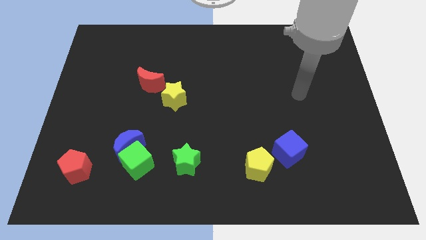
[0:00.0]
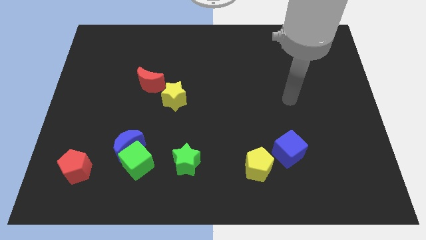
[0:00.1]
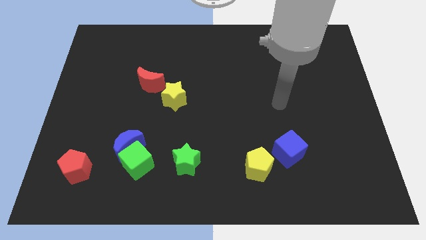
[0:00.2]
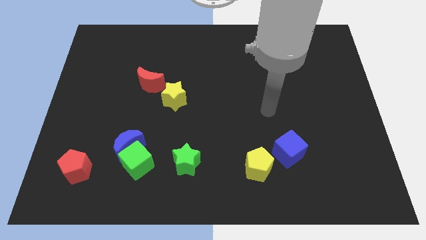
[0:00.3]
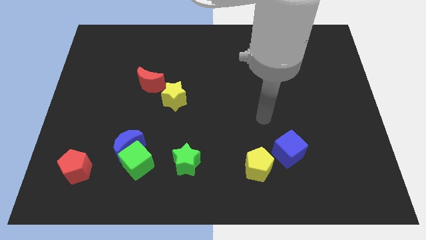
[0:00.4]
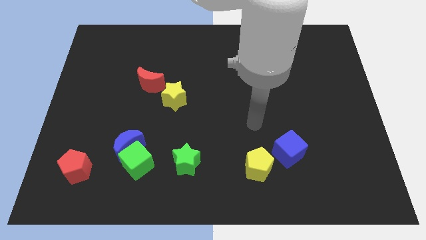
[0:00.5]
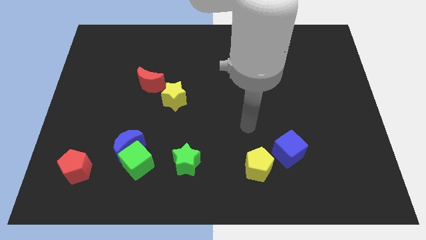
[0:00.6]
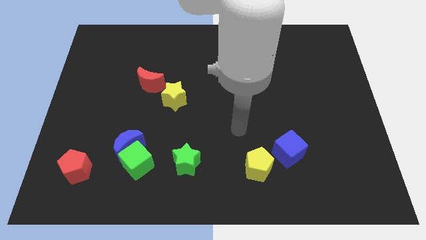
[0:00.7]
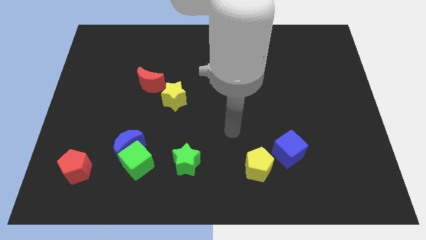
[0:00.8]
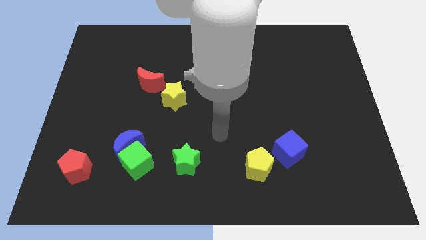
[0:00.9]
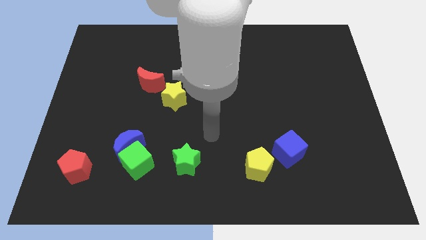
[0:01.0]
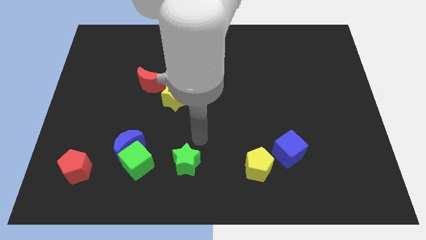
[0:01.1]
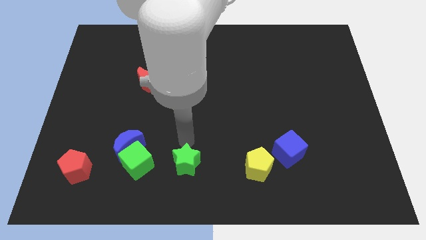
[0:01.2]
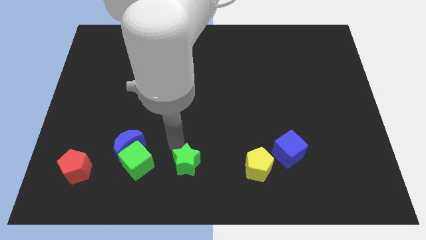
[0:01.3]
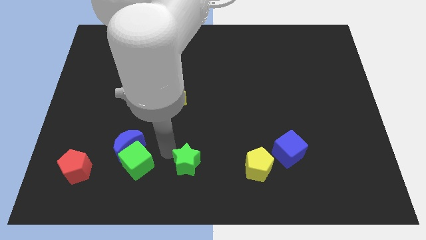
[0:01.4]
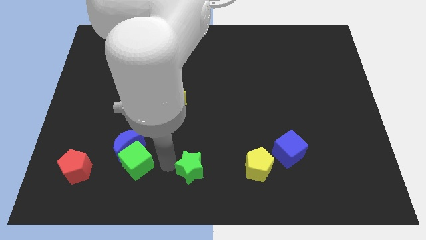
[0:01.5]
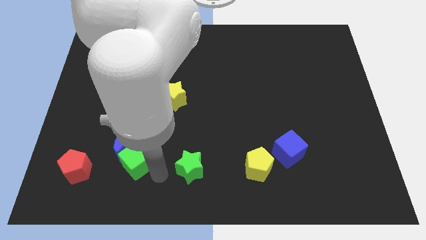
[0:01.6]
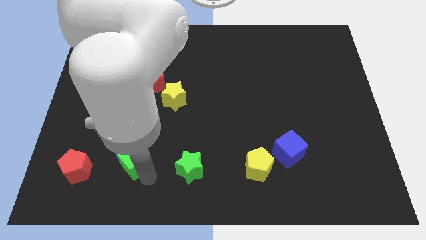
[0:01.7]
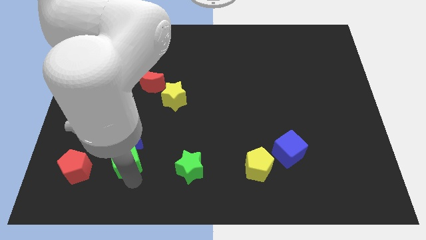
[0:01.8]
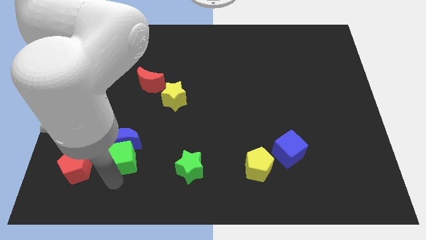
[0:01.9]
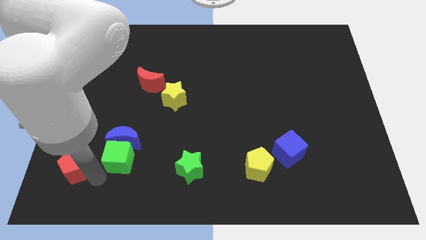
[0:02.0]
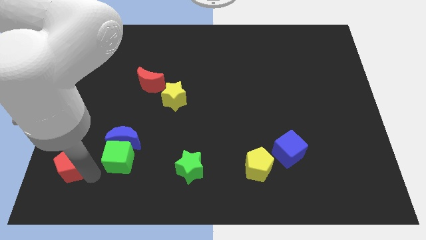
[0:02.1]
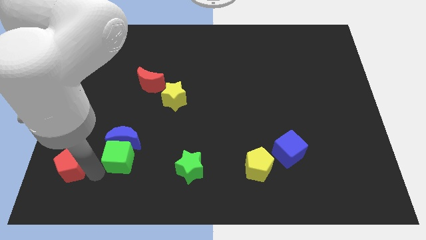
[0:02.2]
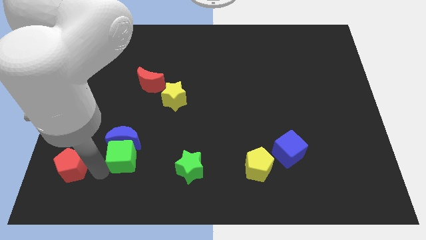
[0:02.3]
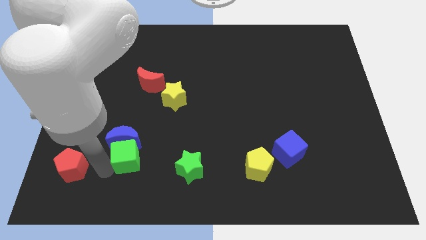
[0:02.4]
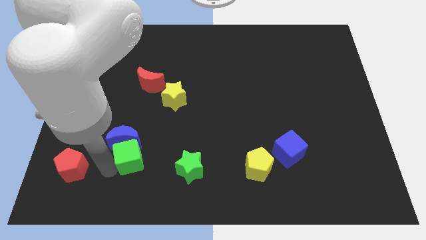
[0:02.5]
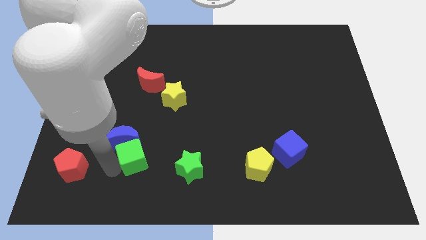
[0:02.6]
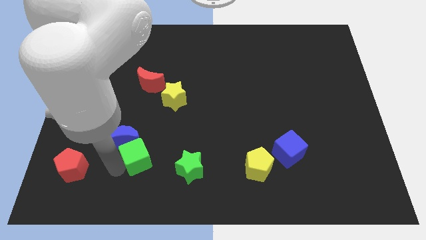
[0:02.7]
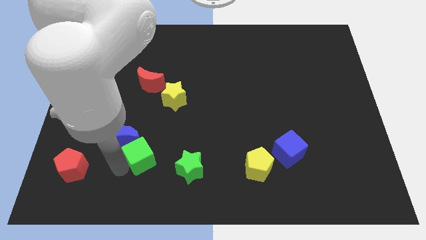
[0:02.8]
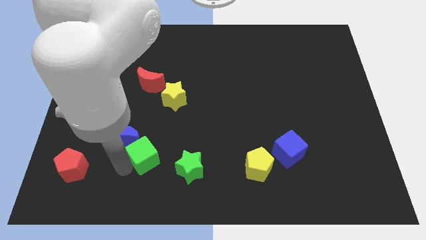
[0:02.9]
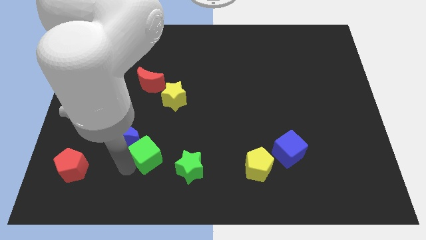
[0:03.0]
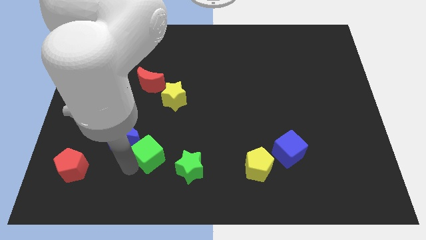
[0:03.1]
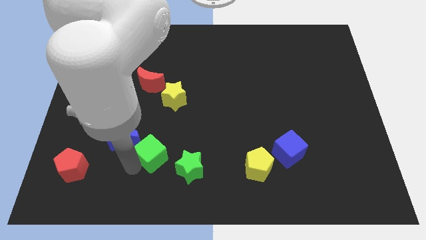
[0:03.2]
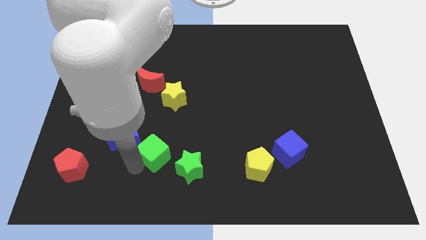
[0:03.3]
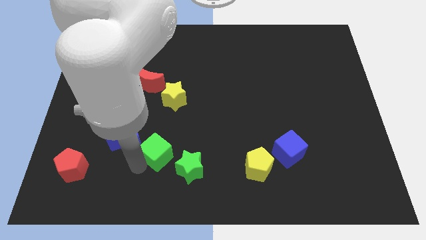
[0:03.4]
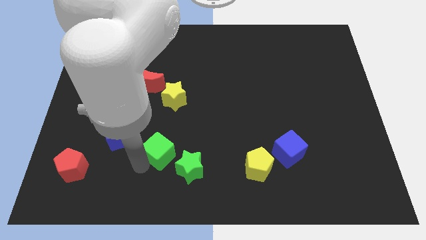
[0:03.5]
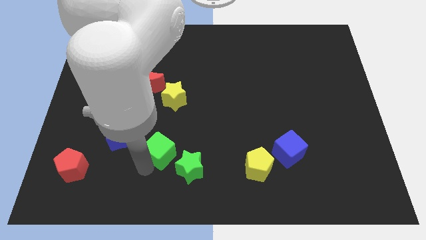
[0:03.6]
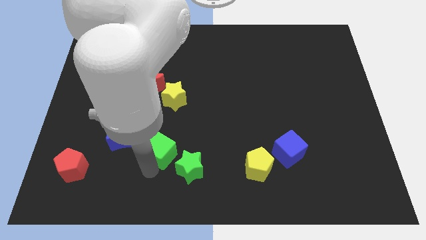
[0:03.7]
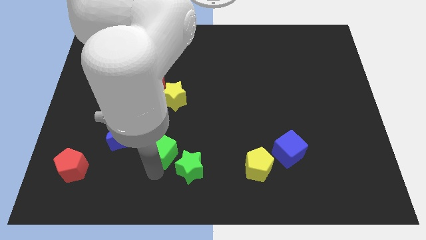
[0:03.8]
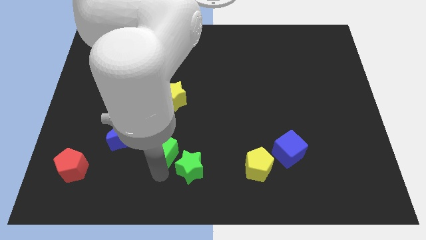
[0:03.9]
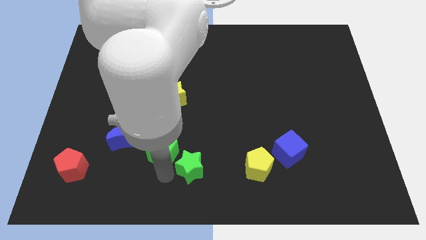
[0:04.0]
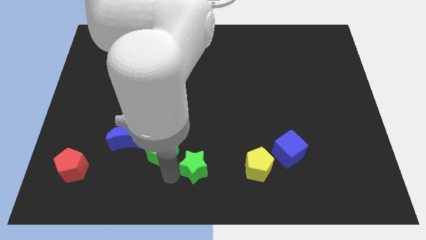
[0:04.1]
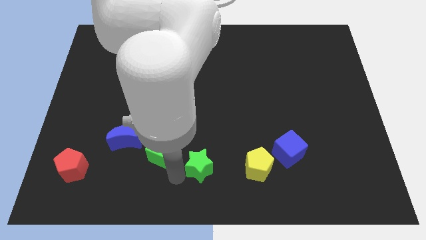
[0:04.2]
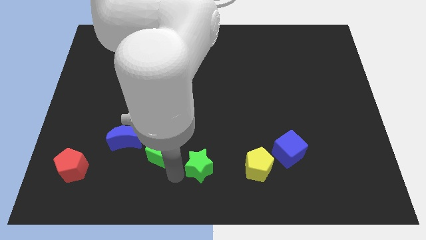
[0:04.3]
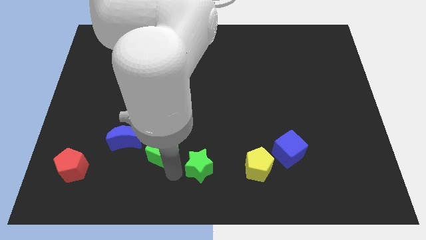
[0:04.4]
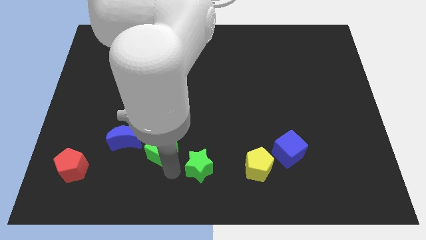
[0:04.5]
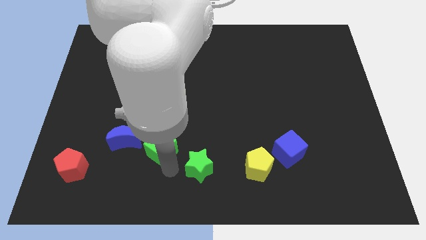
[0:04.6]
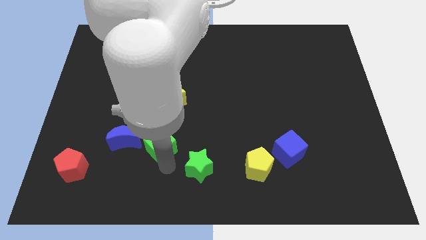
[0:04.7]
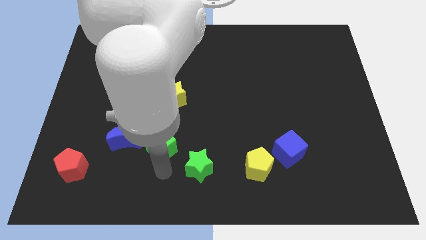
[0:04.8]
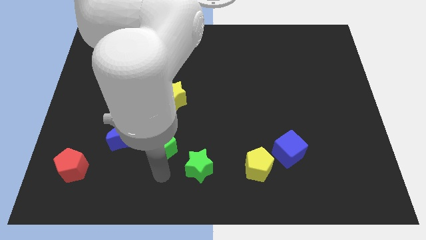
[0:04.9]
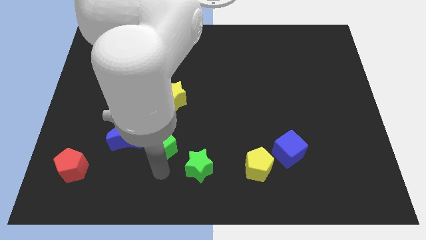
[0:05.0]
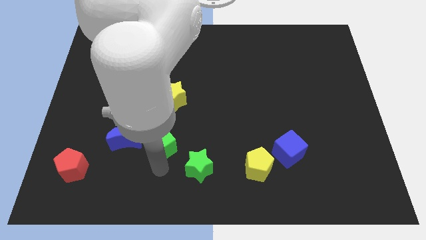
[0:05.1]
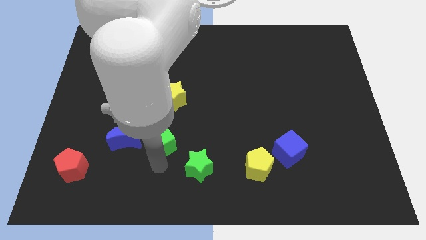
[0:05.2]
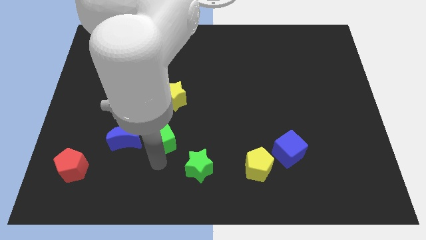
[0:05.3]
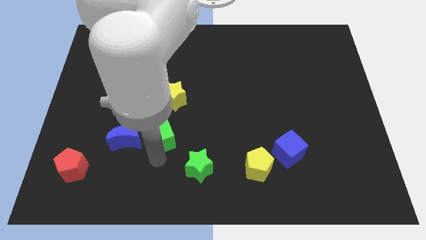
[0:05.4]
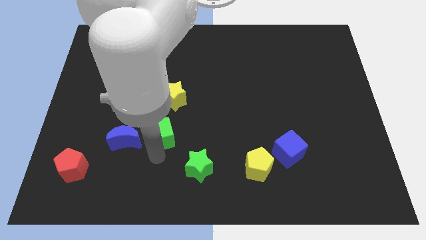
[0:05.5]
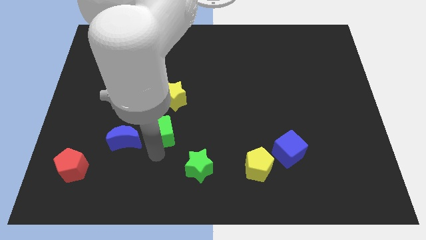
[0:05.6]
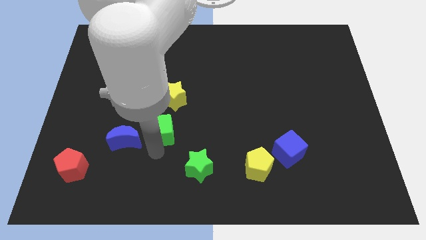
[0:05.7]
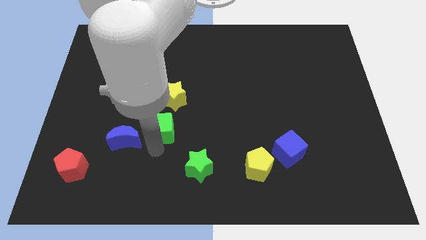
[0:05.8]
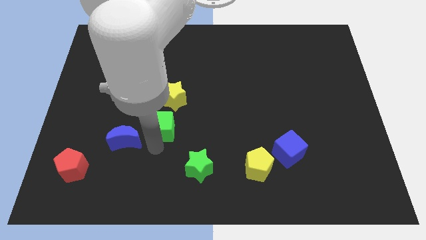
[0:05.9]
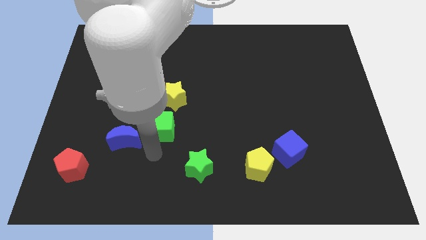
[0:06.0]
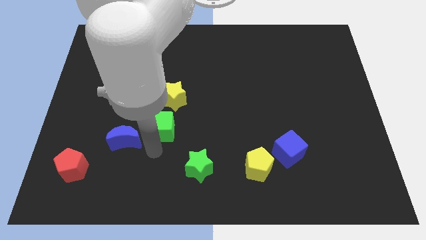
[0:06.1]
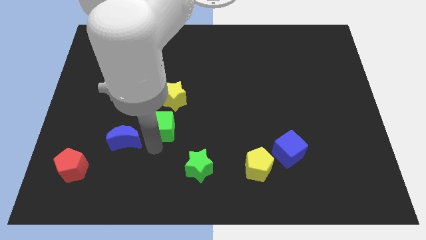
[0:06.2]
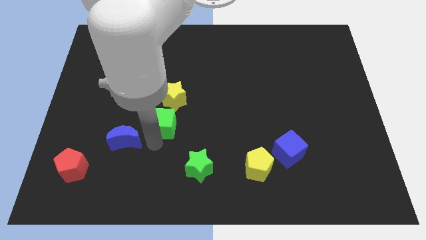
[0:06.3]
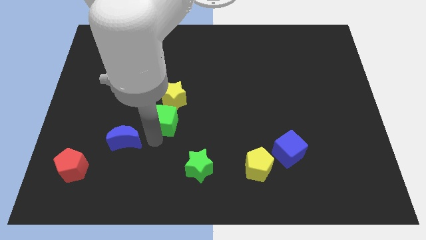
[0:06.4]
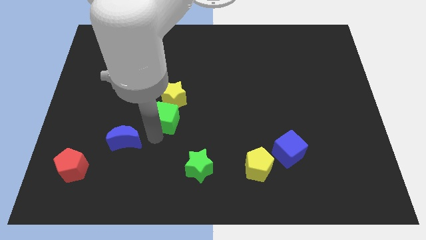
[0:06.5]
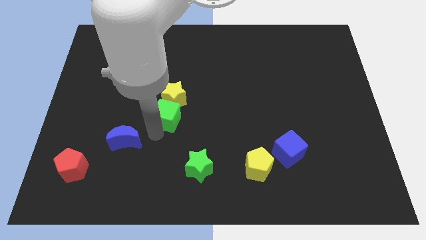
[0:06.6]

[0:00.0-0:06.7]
put the green cube to the yellow star
